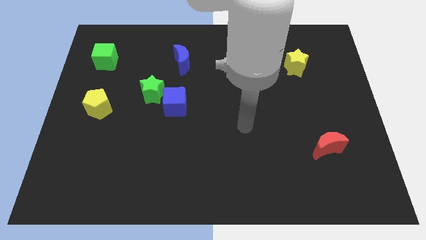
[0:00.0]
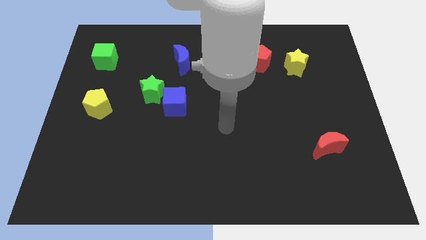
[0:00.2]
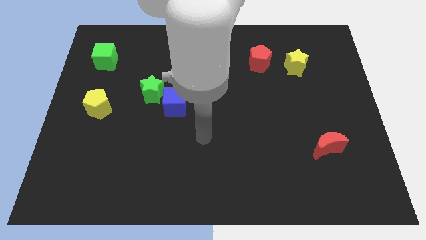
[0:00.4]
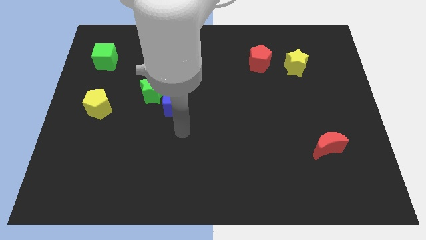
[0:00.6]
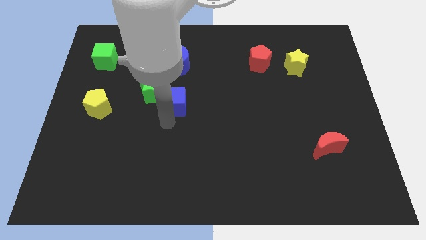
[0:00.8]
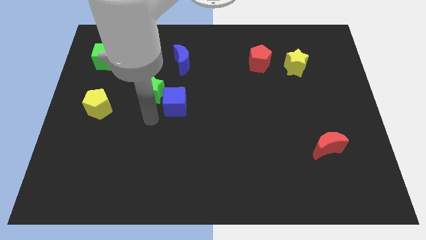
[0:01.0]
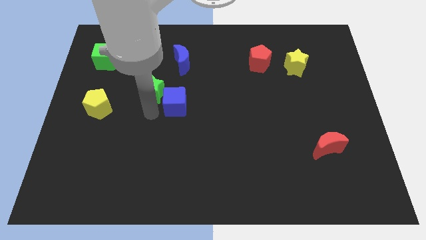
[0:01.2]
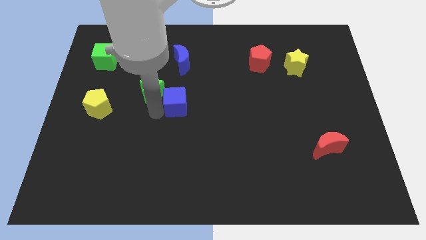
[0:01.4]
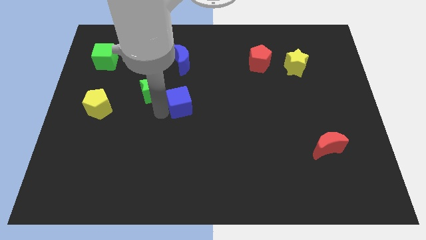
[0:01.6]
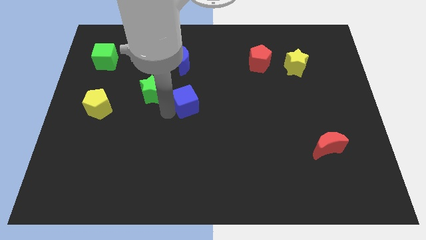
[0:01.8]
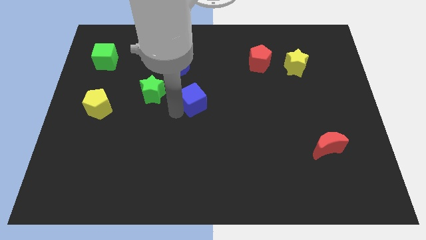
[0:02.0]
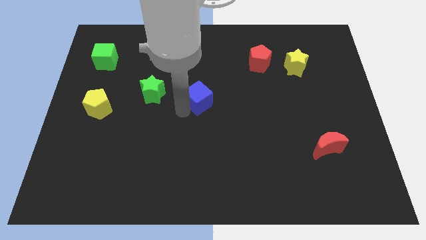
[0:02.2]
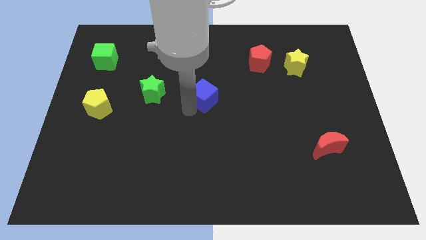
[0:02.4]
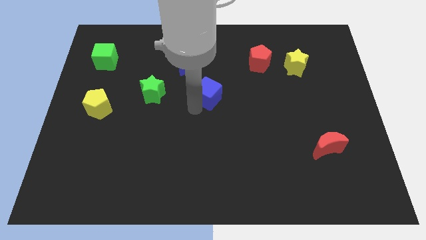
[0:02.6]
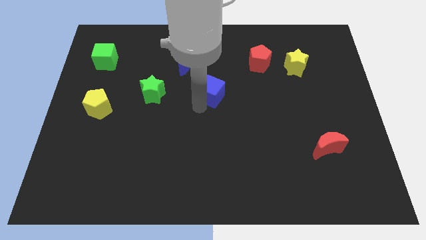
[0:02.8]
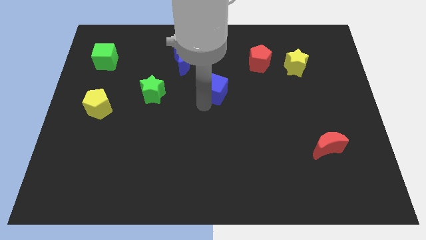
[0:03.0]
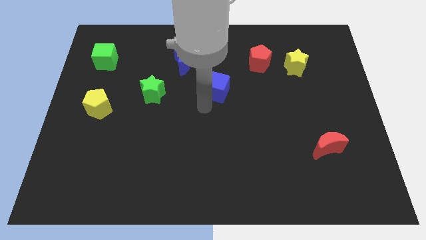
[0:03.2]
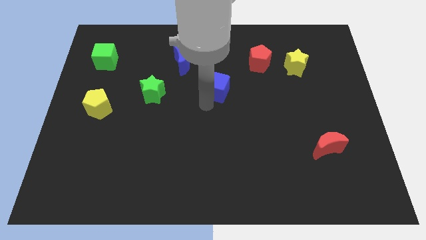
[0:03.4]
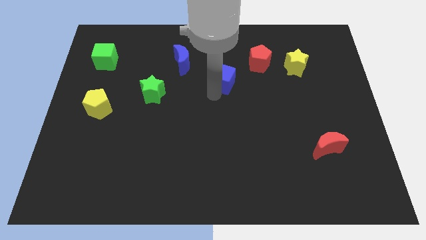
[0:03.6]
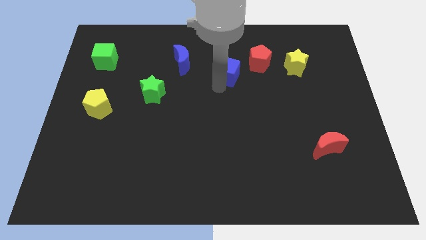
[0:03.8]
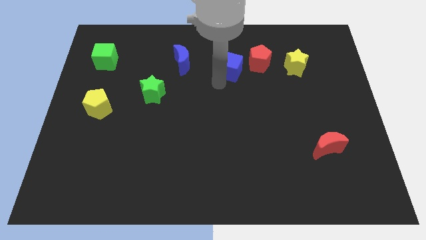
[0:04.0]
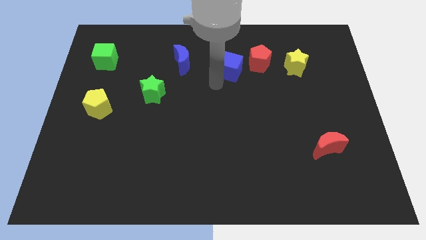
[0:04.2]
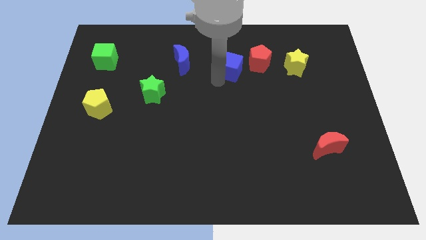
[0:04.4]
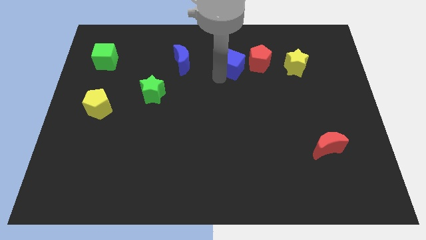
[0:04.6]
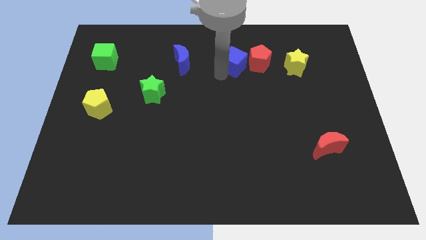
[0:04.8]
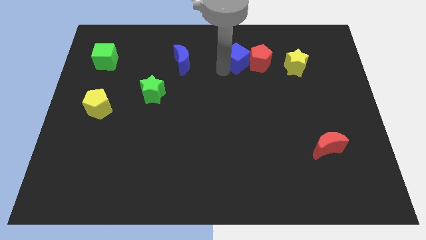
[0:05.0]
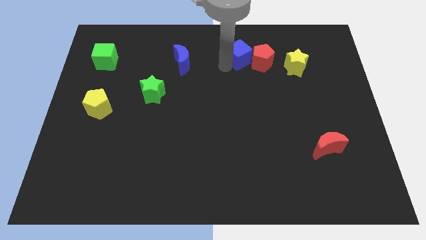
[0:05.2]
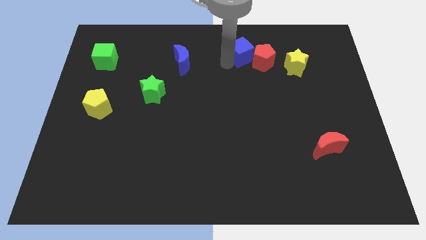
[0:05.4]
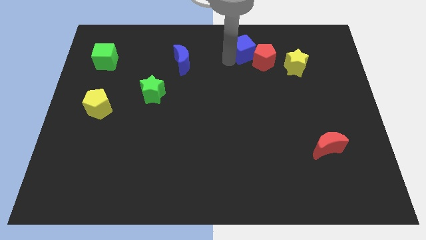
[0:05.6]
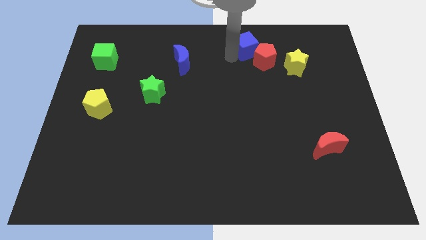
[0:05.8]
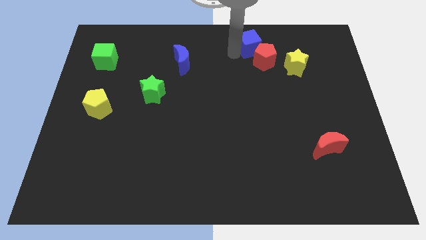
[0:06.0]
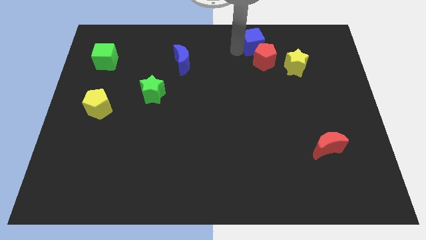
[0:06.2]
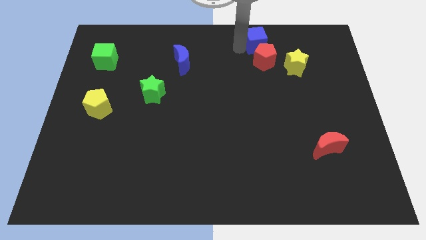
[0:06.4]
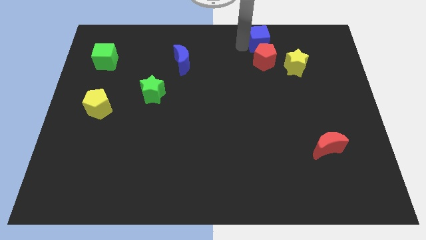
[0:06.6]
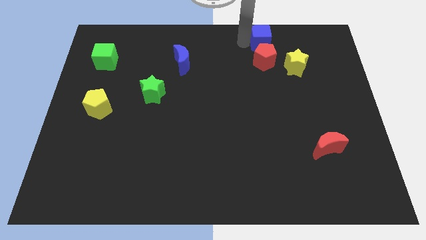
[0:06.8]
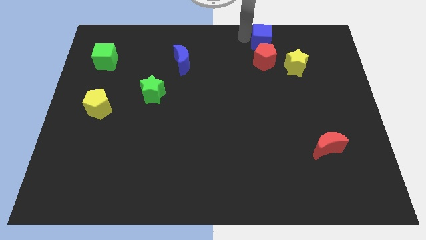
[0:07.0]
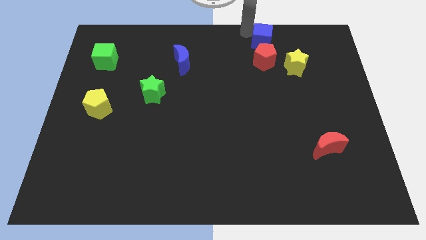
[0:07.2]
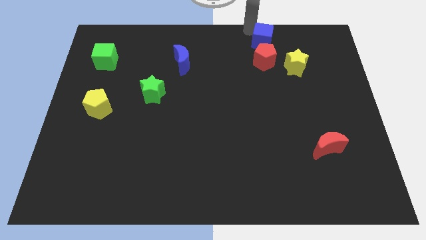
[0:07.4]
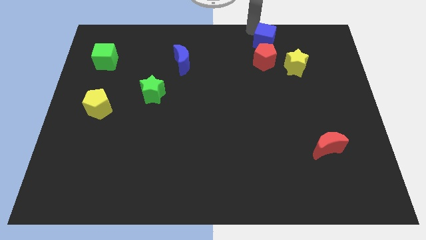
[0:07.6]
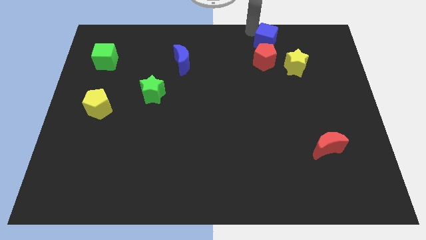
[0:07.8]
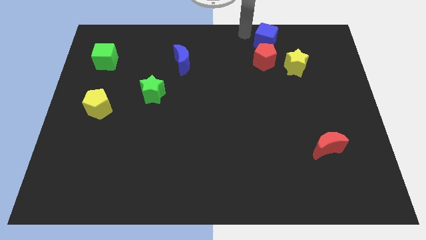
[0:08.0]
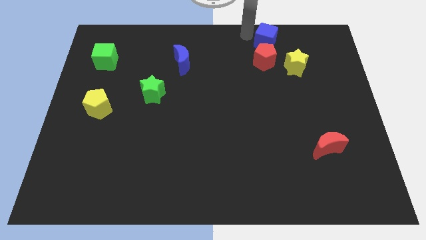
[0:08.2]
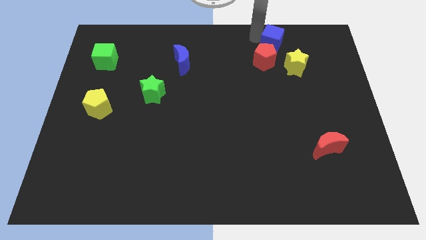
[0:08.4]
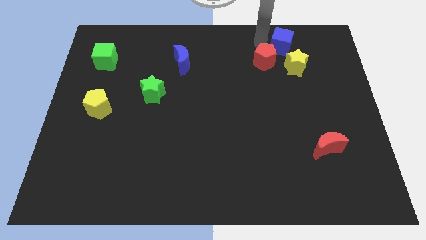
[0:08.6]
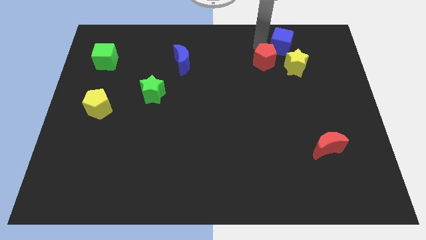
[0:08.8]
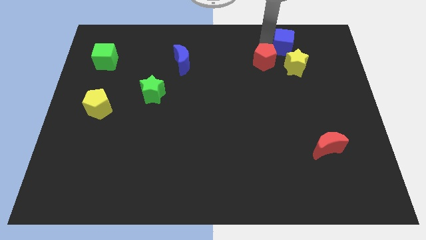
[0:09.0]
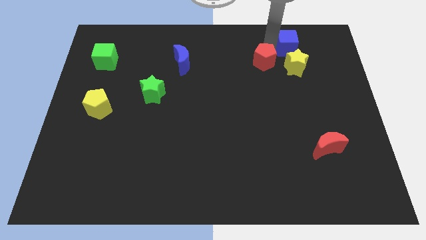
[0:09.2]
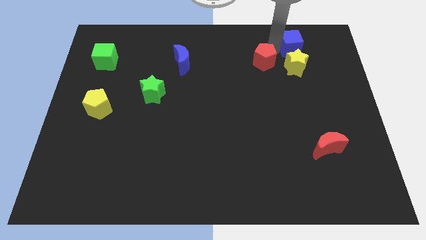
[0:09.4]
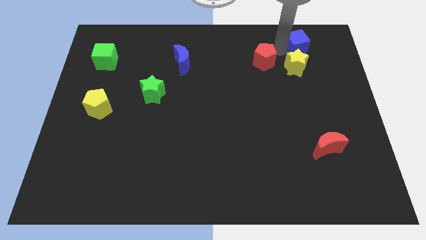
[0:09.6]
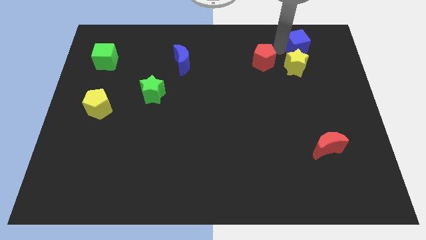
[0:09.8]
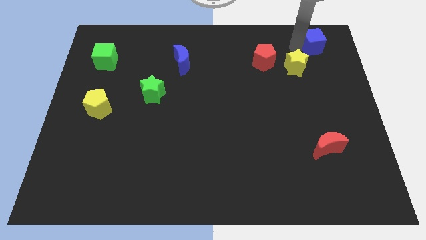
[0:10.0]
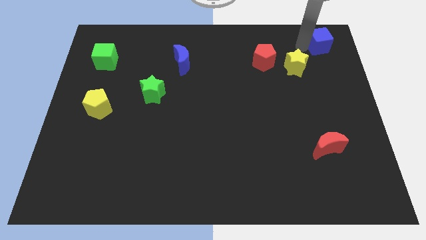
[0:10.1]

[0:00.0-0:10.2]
put the blue cube to the upper right corner

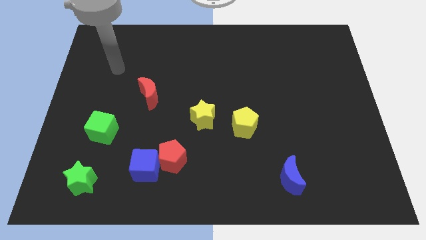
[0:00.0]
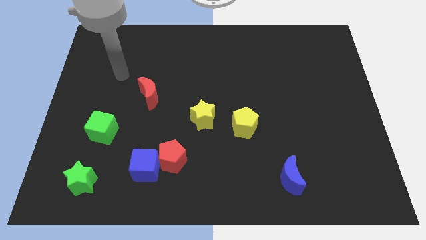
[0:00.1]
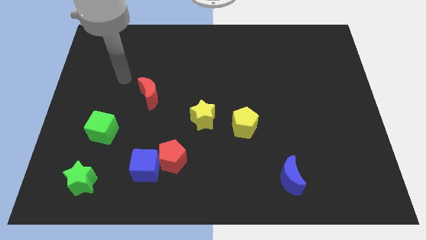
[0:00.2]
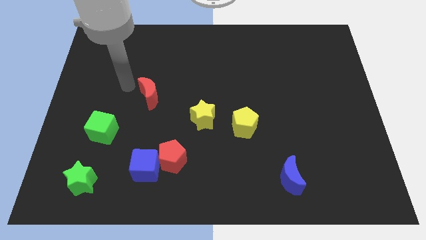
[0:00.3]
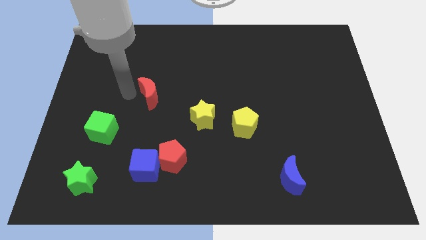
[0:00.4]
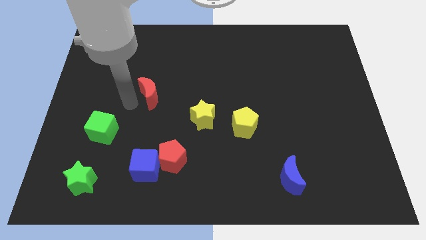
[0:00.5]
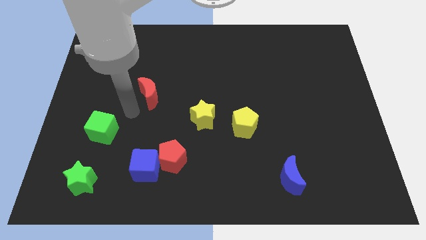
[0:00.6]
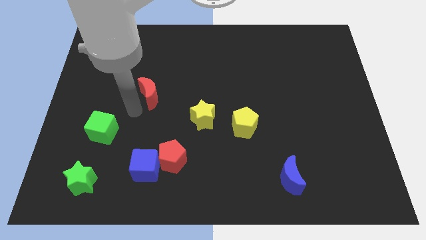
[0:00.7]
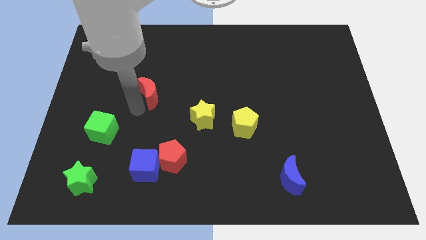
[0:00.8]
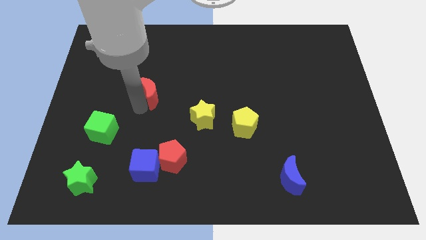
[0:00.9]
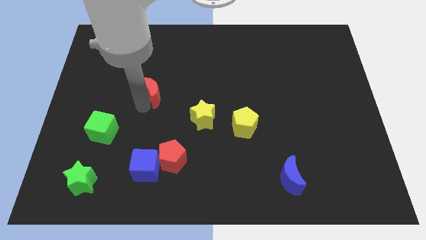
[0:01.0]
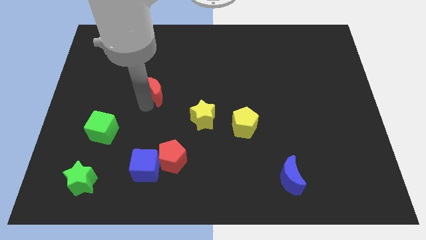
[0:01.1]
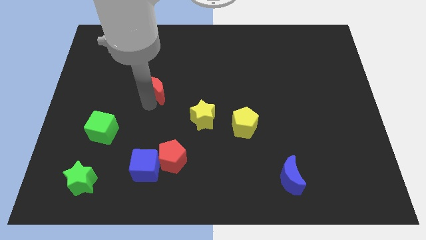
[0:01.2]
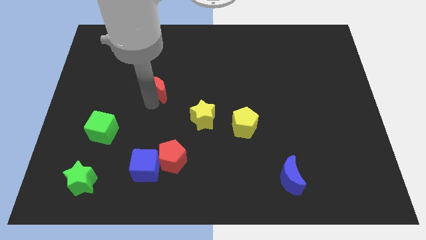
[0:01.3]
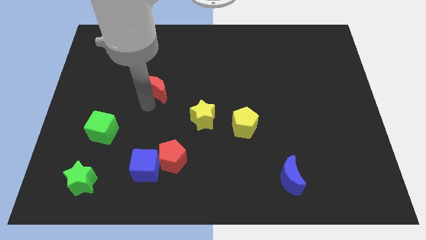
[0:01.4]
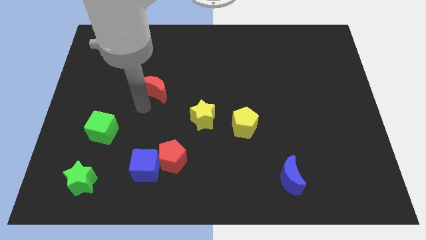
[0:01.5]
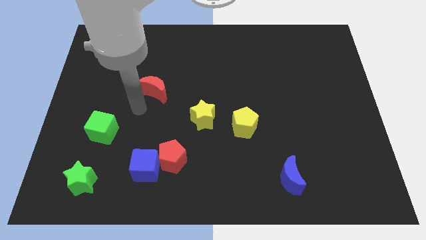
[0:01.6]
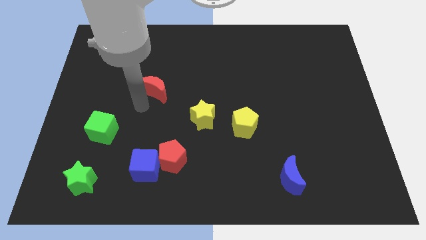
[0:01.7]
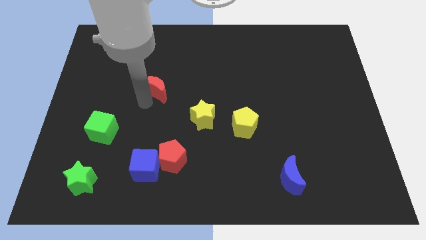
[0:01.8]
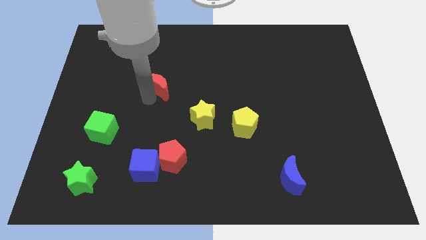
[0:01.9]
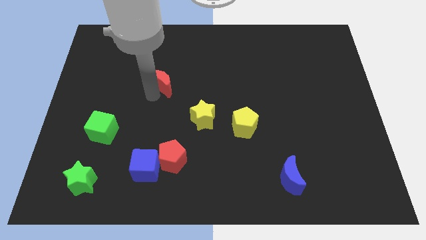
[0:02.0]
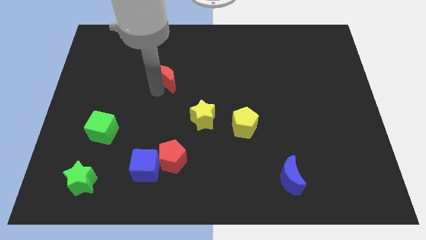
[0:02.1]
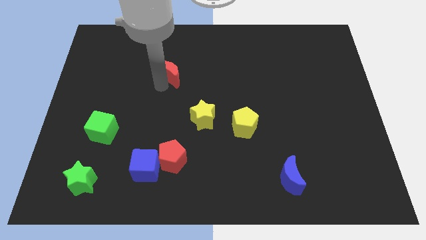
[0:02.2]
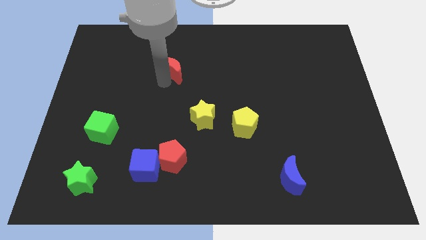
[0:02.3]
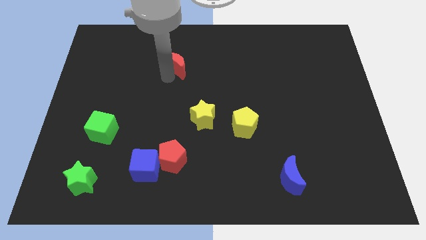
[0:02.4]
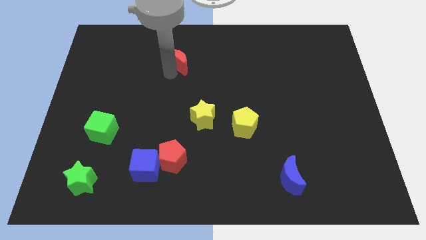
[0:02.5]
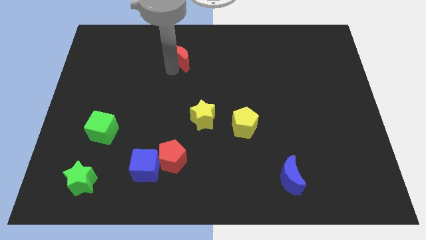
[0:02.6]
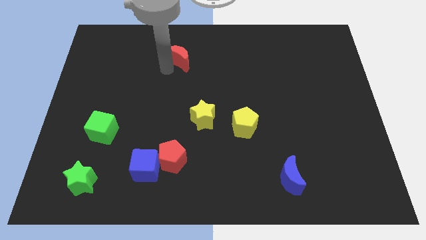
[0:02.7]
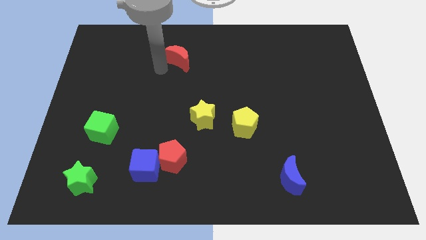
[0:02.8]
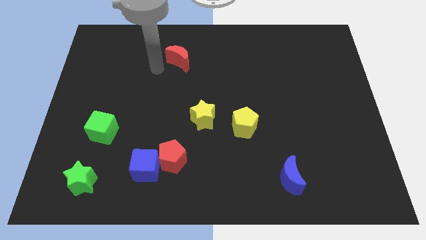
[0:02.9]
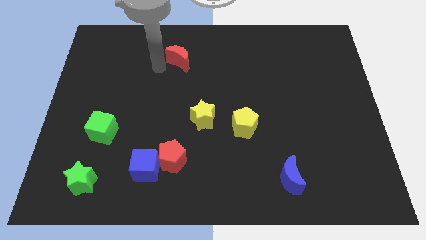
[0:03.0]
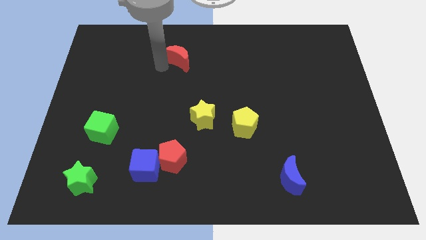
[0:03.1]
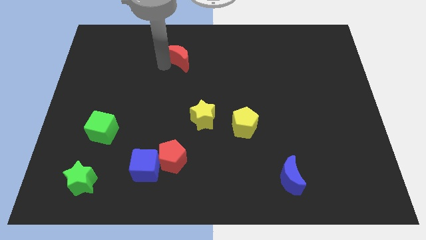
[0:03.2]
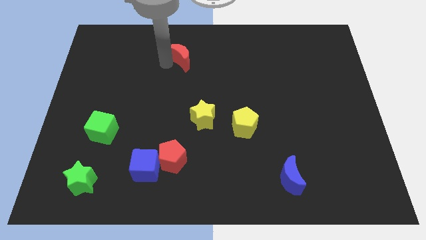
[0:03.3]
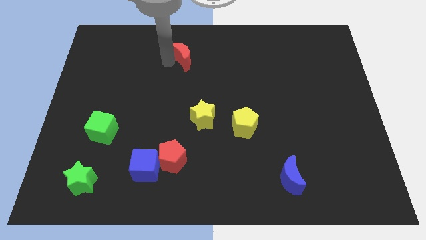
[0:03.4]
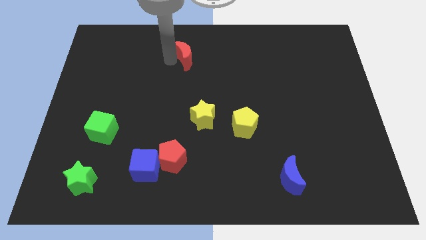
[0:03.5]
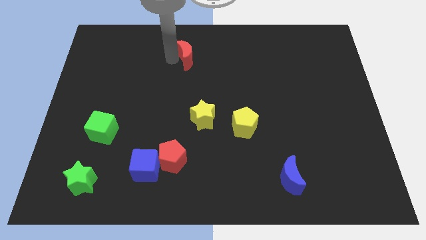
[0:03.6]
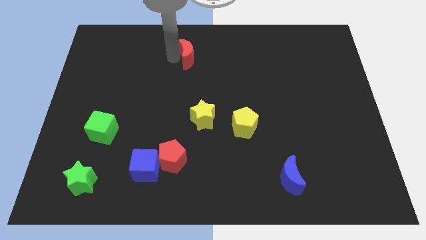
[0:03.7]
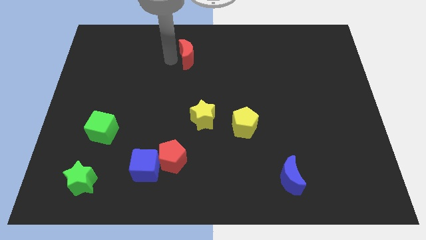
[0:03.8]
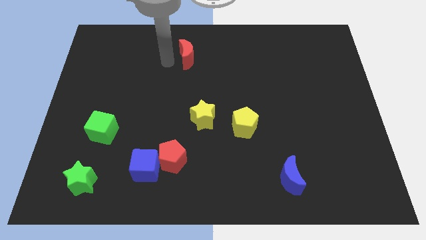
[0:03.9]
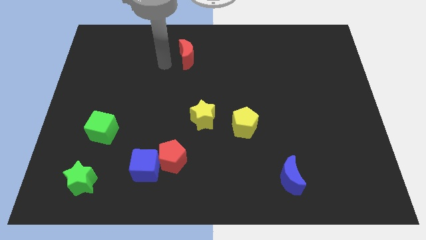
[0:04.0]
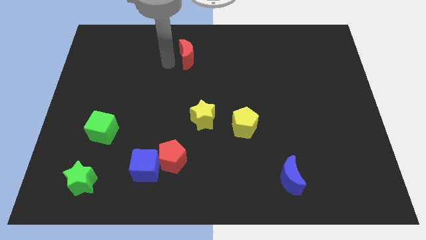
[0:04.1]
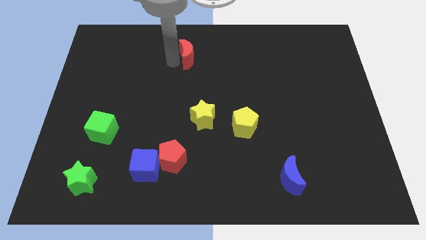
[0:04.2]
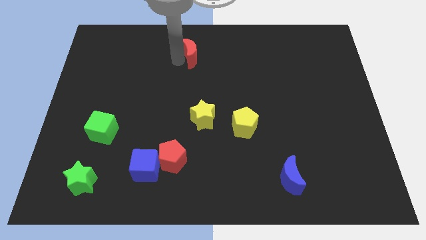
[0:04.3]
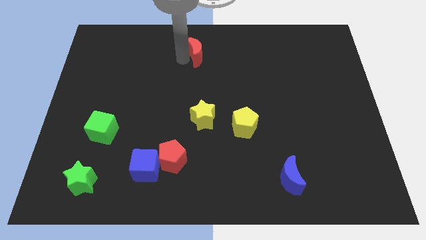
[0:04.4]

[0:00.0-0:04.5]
put the red moon to the top
